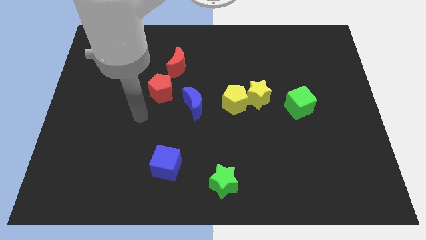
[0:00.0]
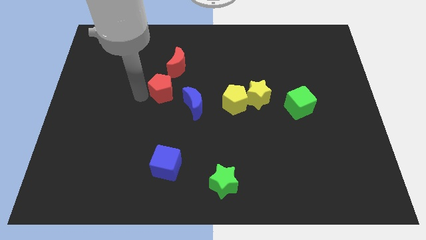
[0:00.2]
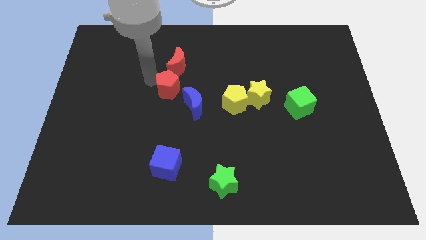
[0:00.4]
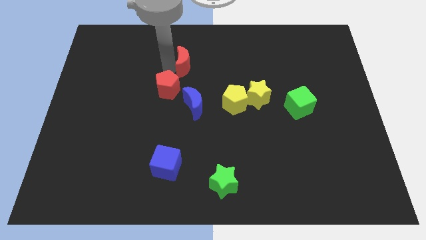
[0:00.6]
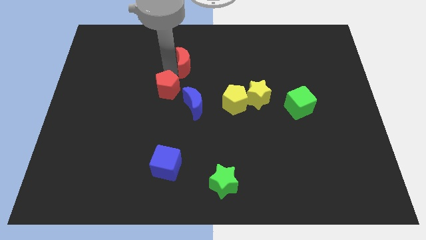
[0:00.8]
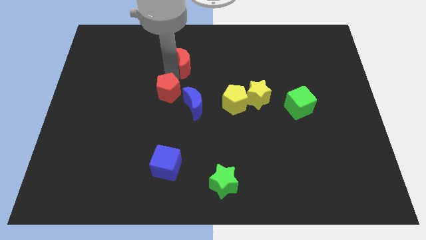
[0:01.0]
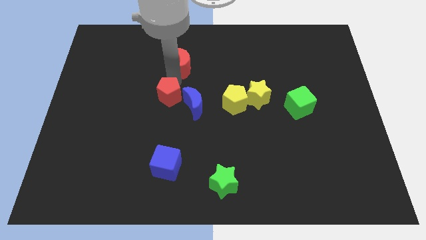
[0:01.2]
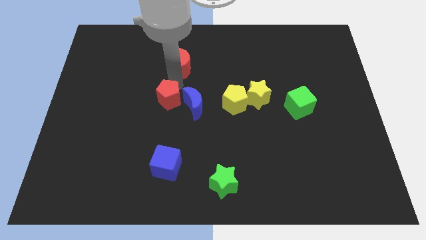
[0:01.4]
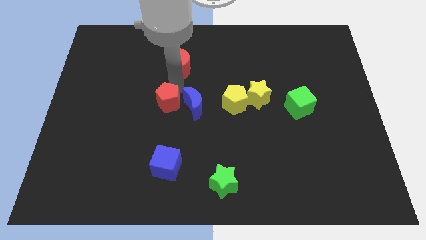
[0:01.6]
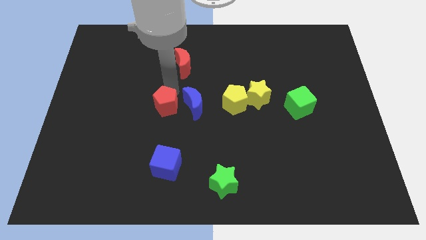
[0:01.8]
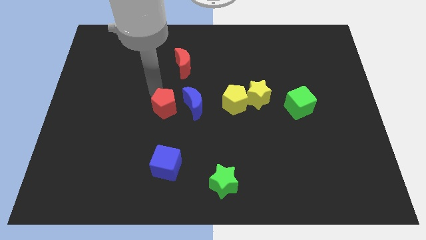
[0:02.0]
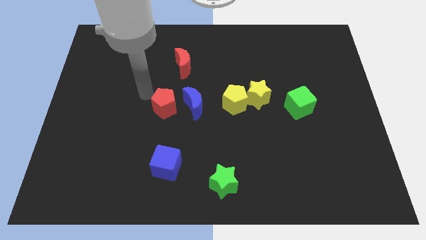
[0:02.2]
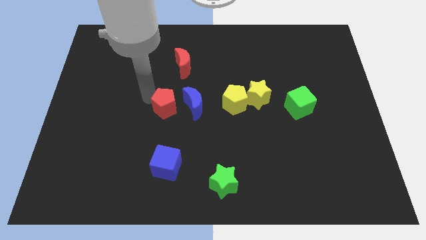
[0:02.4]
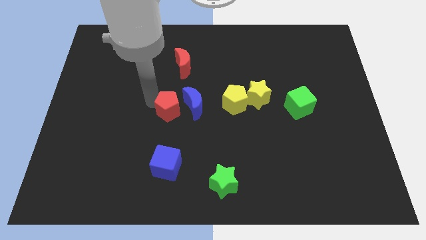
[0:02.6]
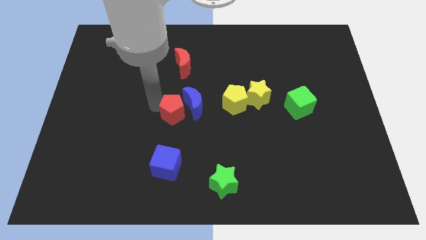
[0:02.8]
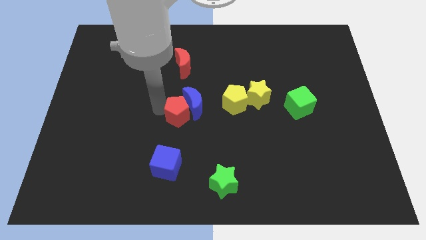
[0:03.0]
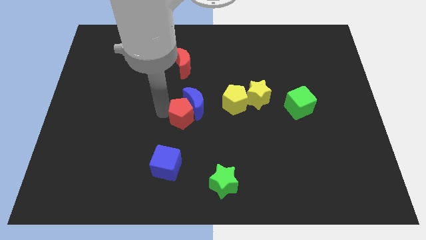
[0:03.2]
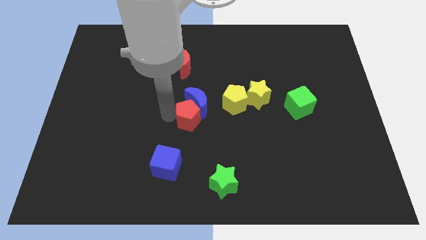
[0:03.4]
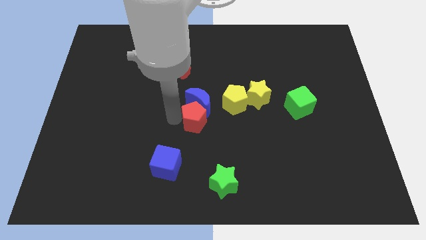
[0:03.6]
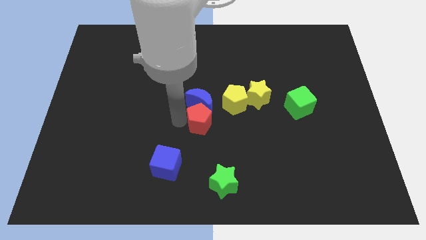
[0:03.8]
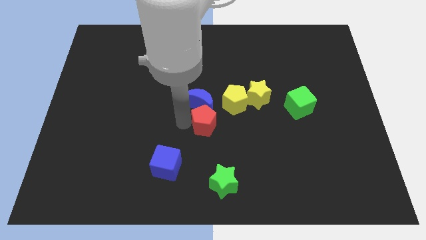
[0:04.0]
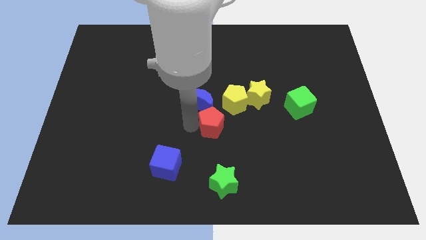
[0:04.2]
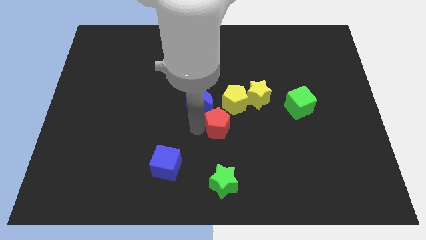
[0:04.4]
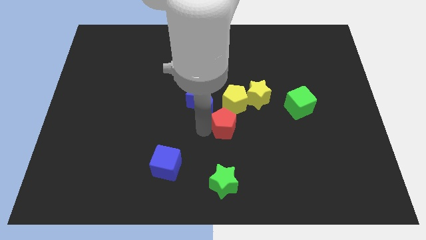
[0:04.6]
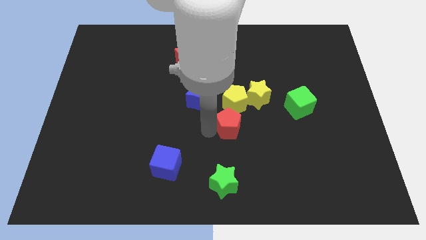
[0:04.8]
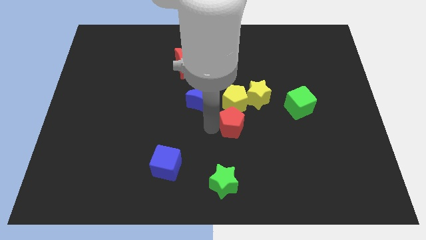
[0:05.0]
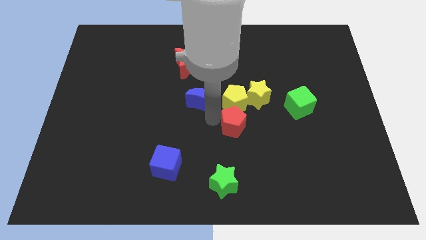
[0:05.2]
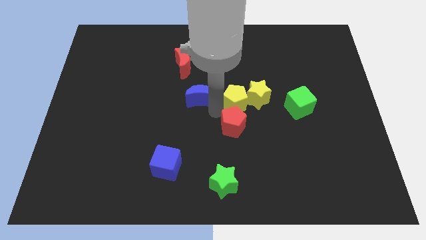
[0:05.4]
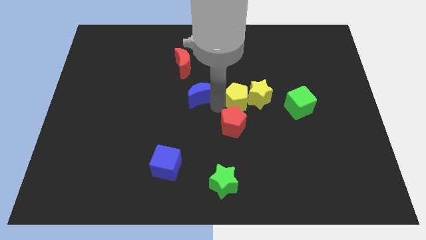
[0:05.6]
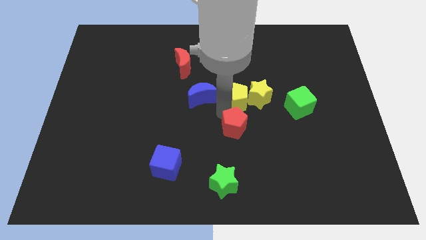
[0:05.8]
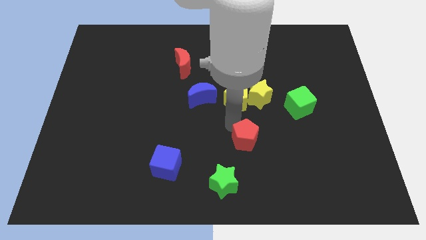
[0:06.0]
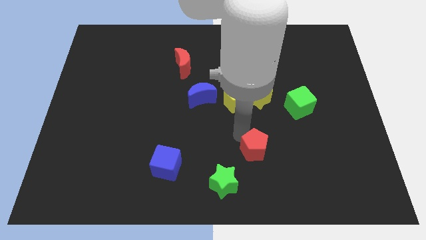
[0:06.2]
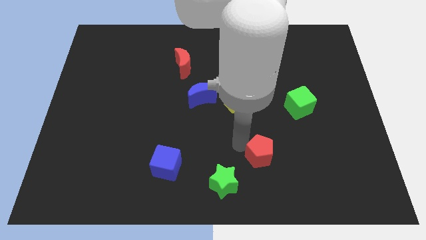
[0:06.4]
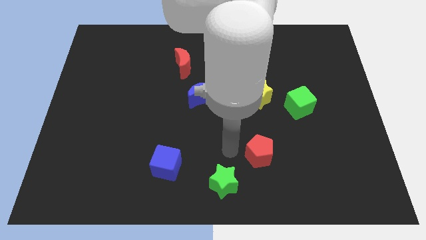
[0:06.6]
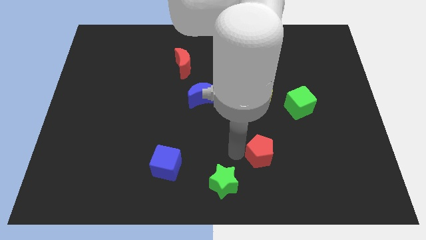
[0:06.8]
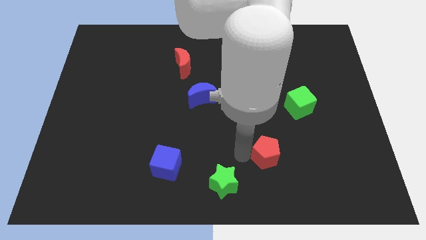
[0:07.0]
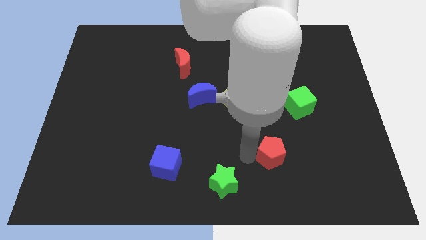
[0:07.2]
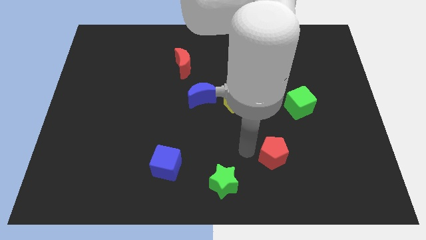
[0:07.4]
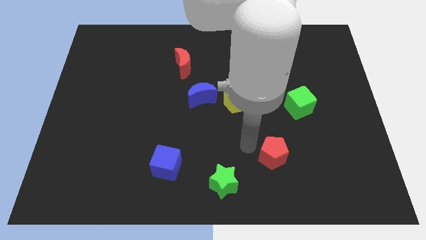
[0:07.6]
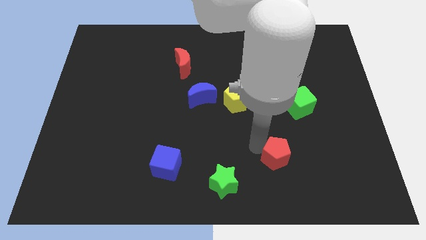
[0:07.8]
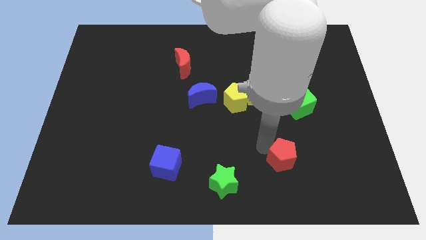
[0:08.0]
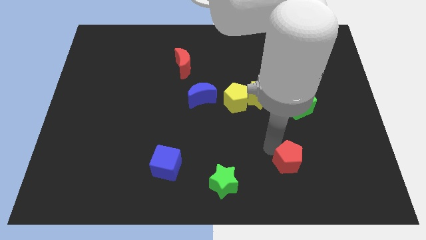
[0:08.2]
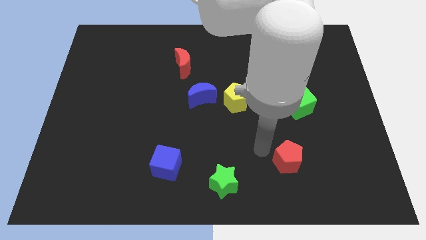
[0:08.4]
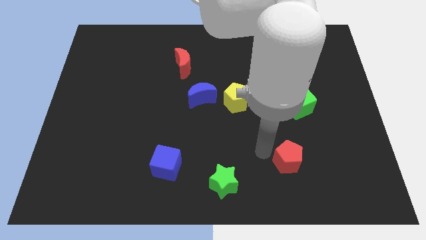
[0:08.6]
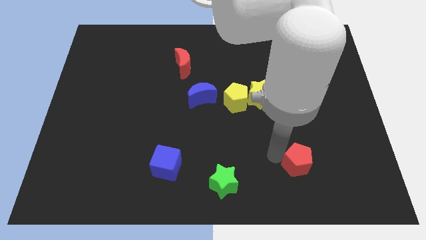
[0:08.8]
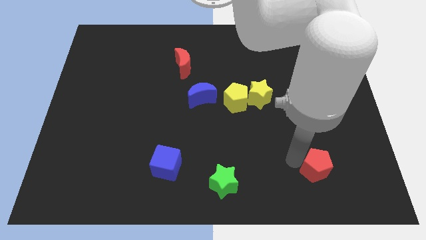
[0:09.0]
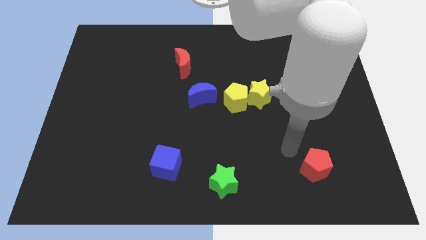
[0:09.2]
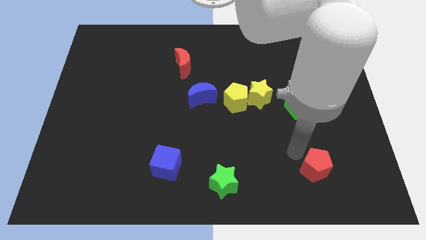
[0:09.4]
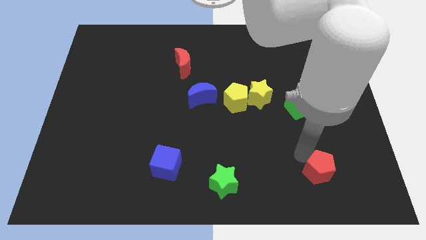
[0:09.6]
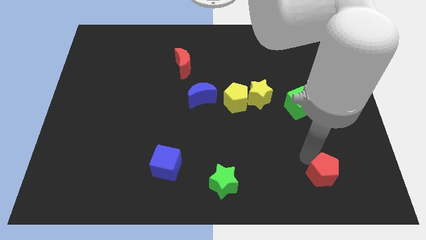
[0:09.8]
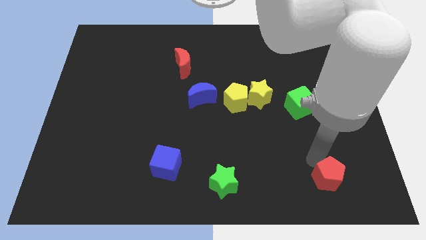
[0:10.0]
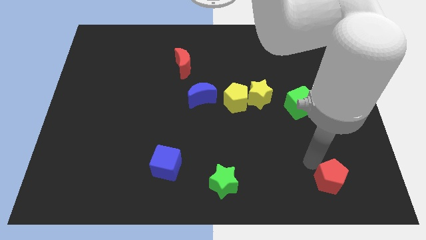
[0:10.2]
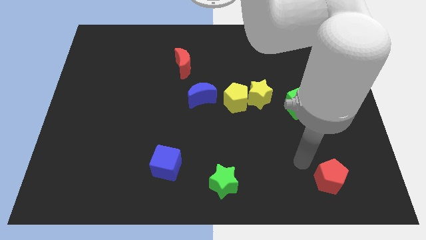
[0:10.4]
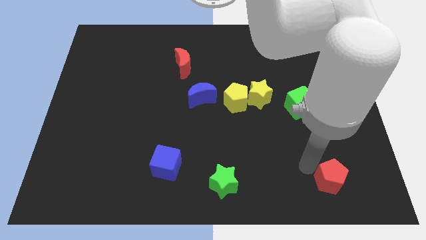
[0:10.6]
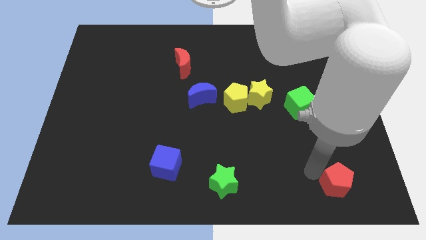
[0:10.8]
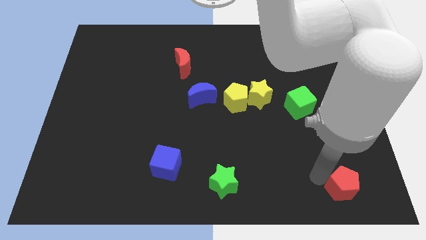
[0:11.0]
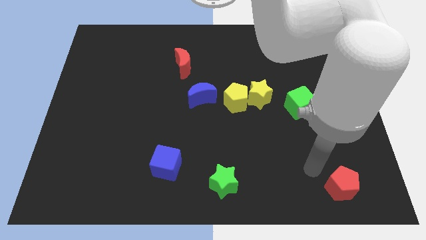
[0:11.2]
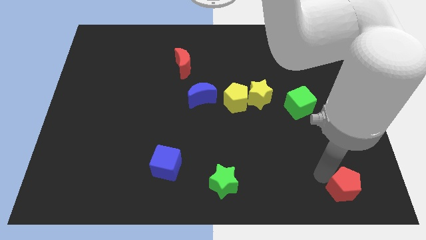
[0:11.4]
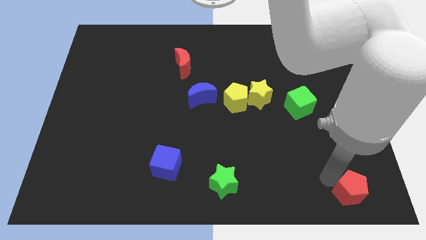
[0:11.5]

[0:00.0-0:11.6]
slide the red pentagon to the bottom right
